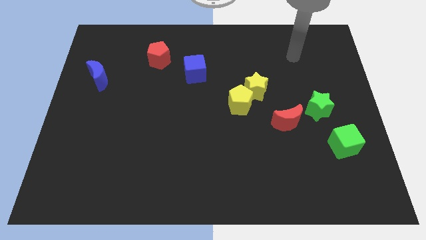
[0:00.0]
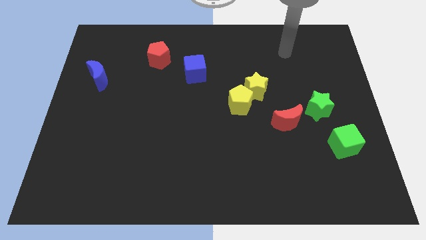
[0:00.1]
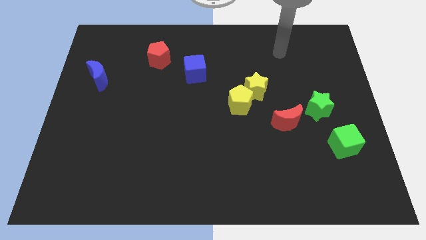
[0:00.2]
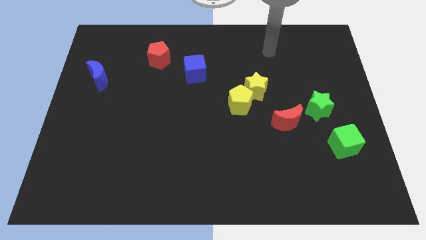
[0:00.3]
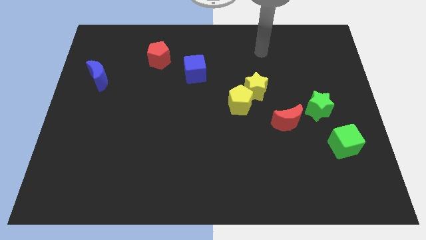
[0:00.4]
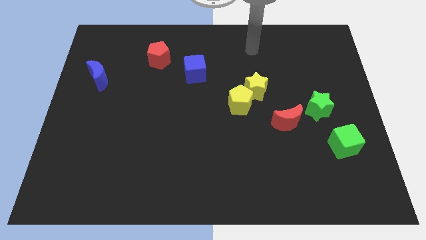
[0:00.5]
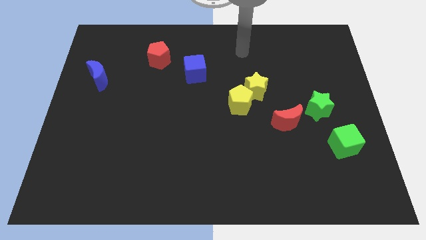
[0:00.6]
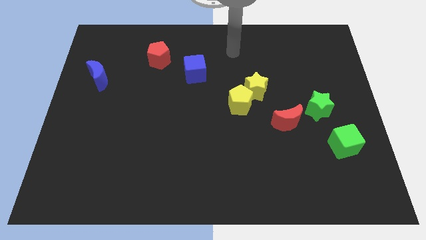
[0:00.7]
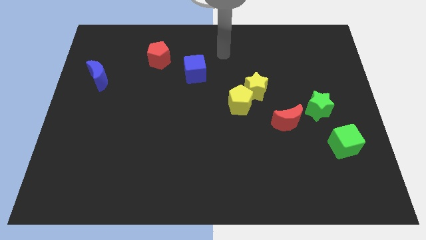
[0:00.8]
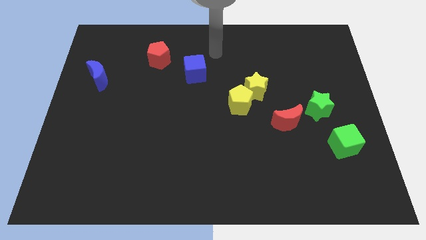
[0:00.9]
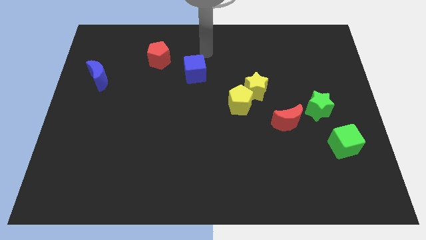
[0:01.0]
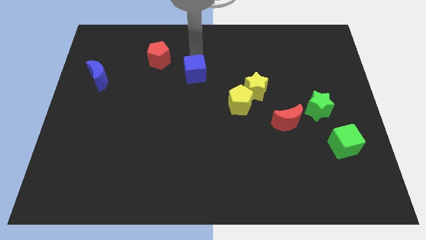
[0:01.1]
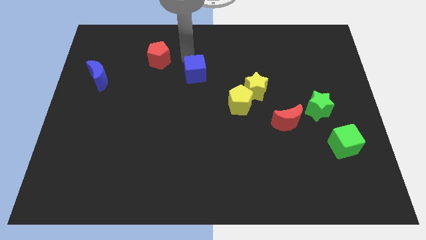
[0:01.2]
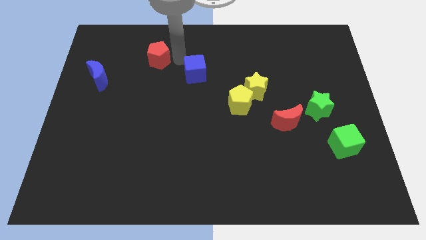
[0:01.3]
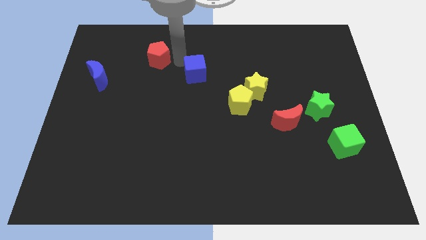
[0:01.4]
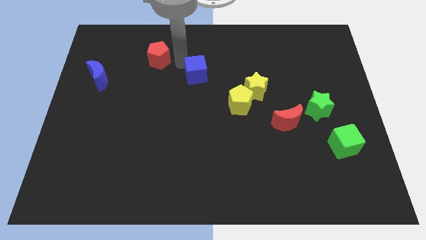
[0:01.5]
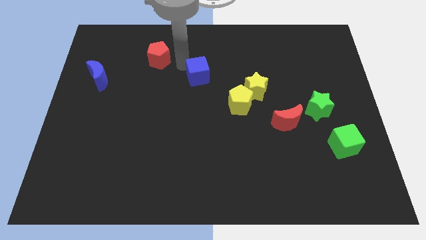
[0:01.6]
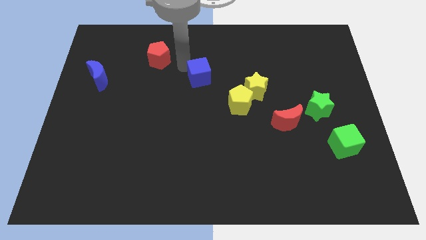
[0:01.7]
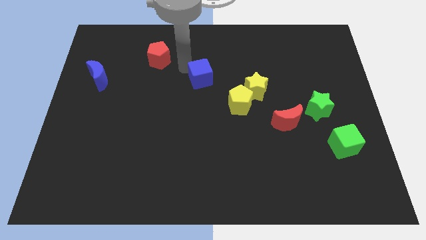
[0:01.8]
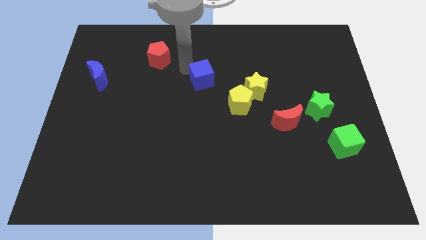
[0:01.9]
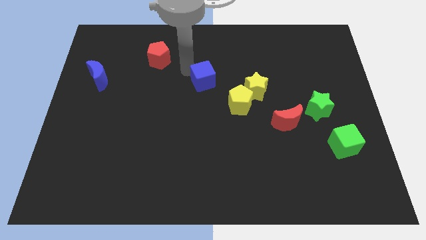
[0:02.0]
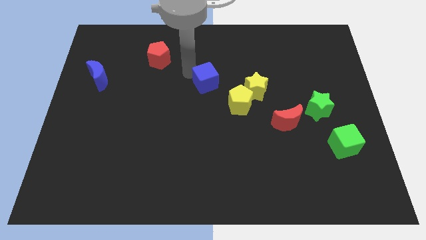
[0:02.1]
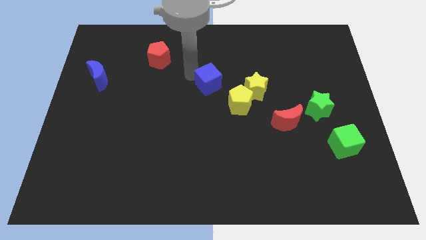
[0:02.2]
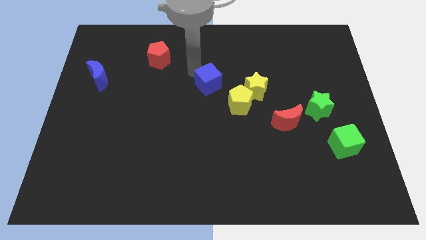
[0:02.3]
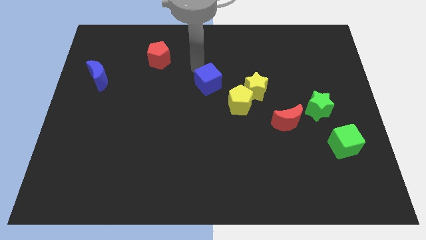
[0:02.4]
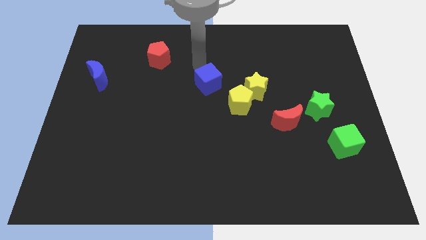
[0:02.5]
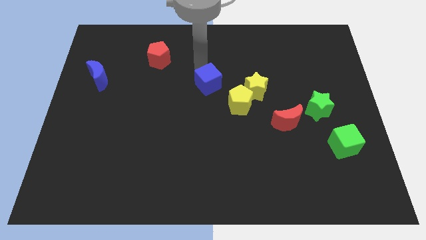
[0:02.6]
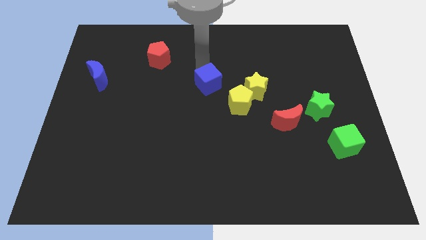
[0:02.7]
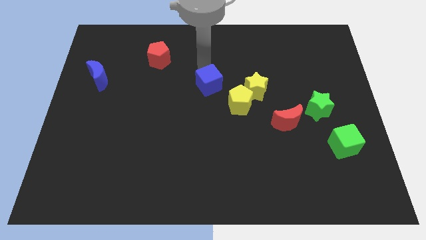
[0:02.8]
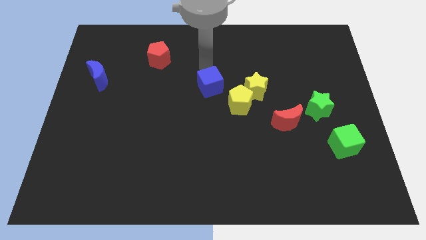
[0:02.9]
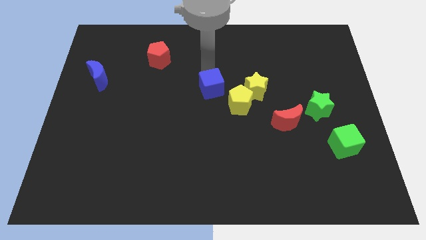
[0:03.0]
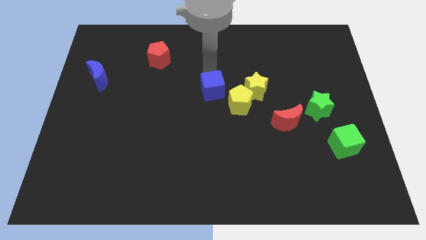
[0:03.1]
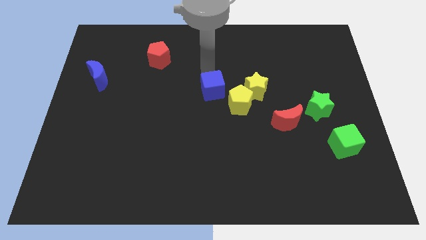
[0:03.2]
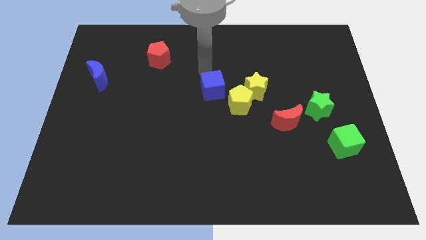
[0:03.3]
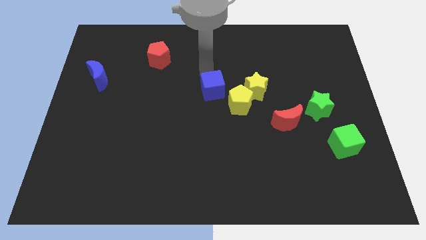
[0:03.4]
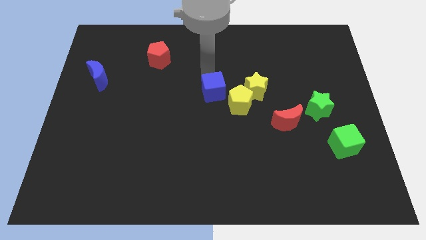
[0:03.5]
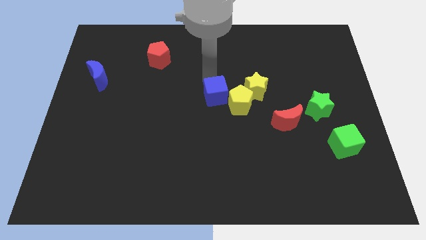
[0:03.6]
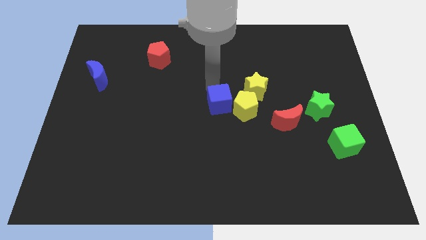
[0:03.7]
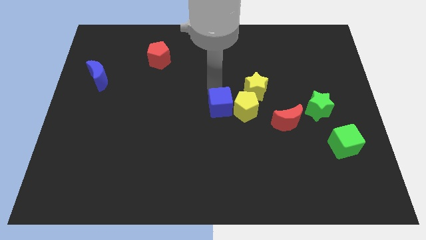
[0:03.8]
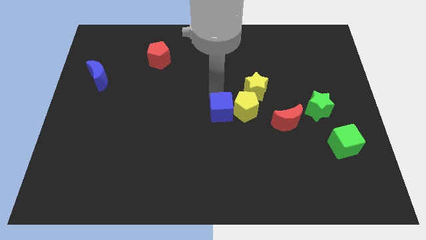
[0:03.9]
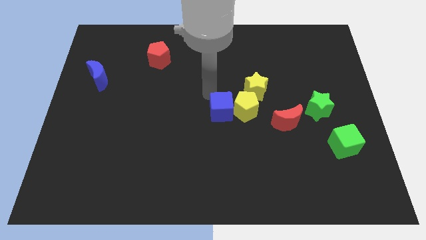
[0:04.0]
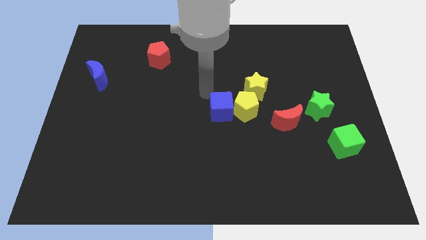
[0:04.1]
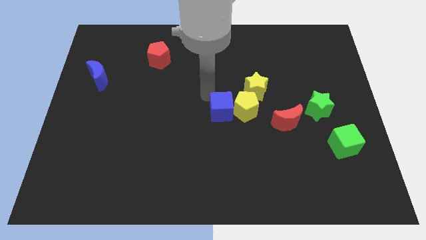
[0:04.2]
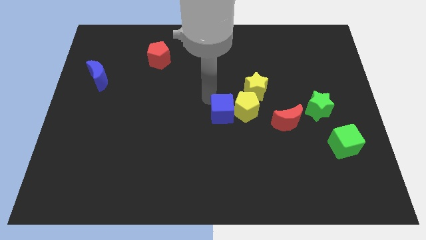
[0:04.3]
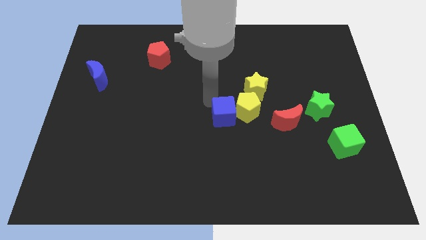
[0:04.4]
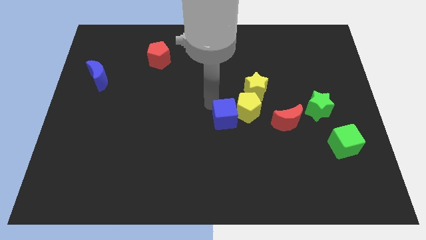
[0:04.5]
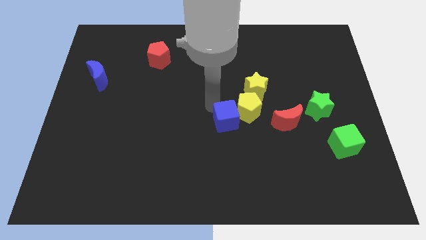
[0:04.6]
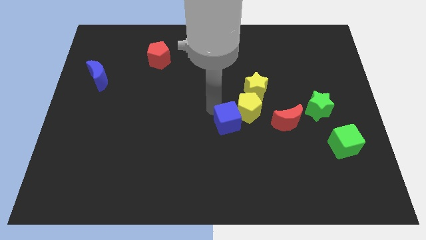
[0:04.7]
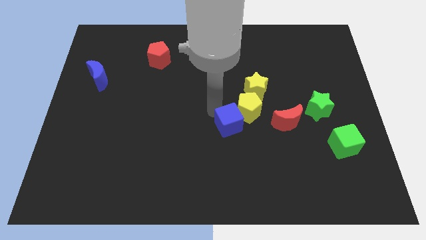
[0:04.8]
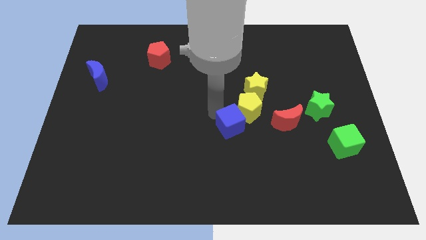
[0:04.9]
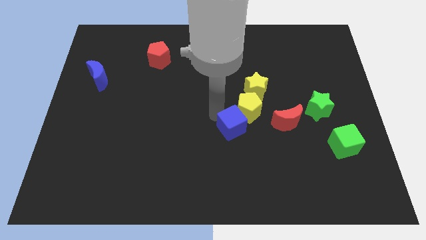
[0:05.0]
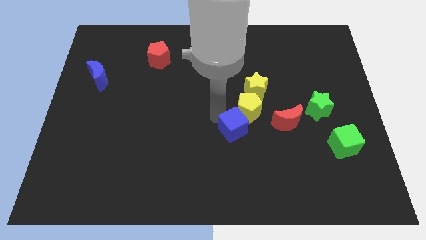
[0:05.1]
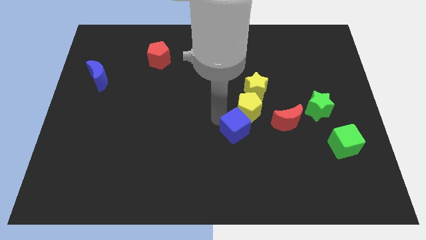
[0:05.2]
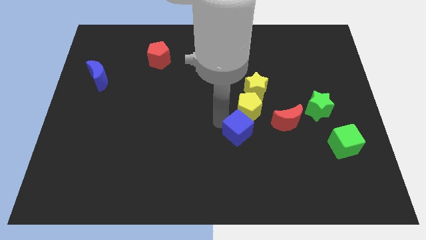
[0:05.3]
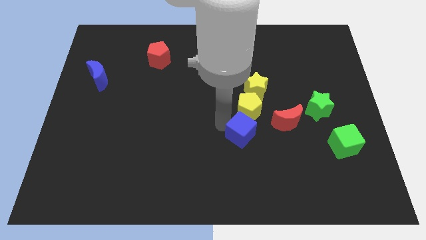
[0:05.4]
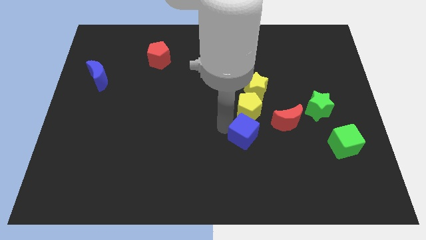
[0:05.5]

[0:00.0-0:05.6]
push the blue cube down and to the right diagonally

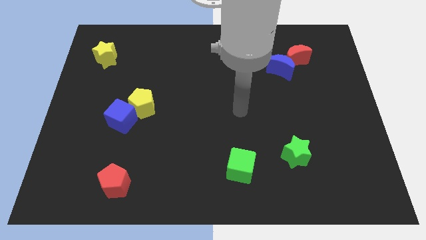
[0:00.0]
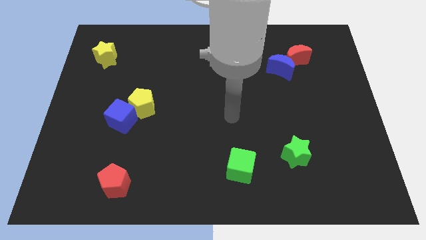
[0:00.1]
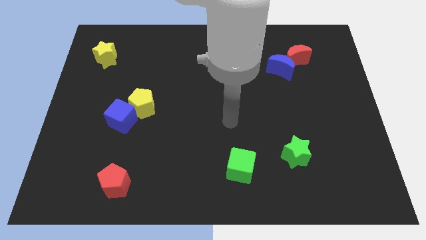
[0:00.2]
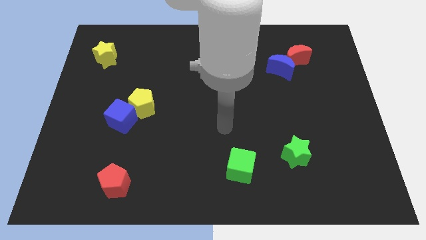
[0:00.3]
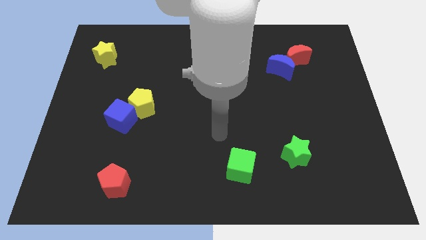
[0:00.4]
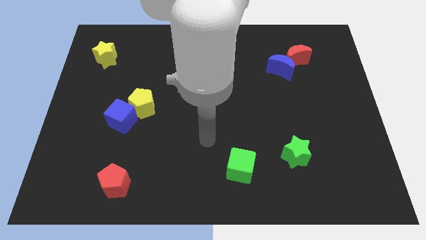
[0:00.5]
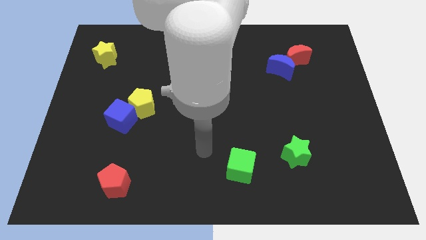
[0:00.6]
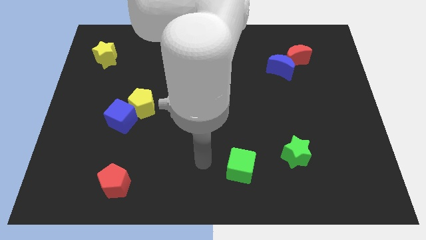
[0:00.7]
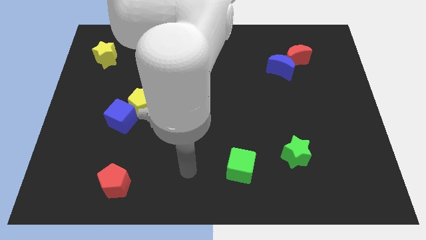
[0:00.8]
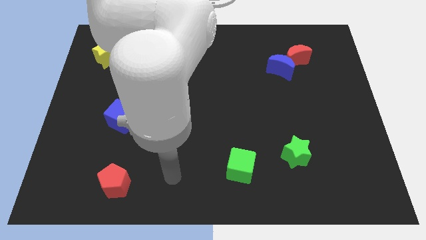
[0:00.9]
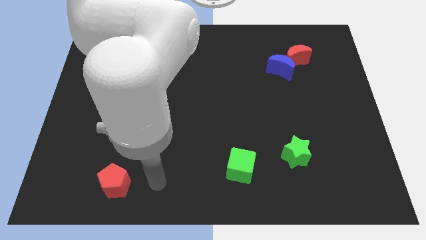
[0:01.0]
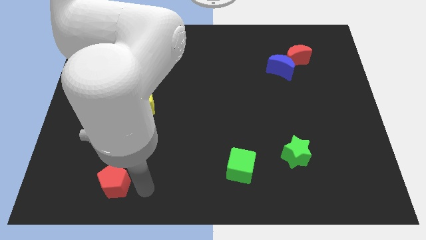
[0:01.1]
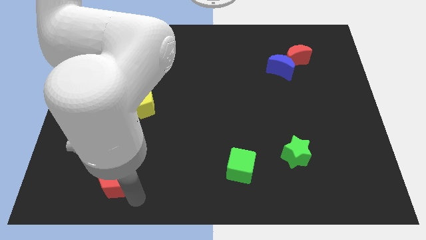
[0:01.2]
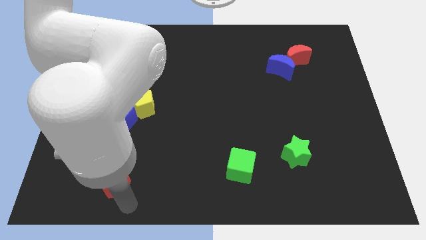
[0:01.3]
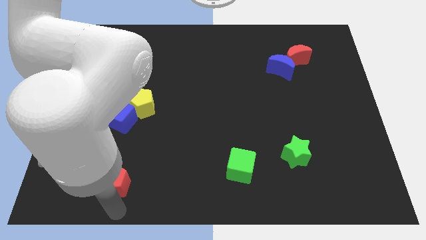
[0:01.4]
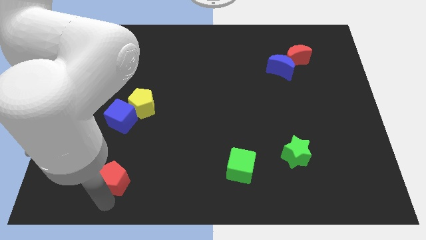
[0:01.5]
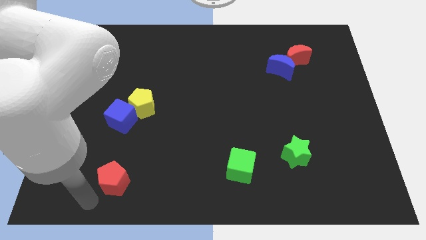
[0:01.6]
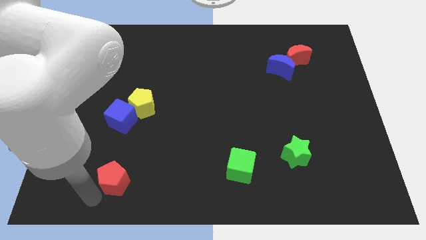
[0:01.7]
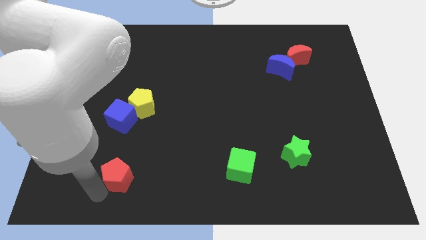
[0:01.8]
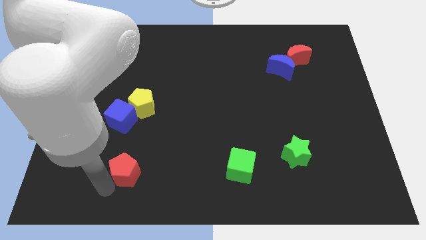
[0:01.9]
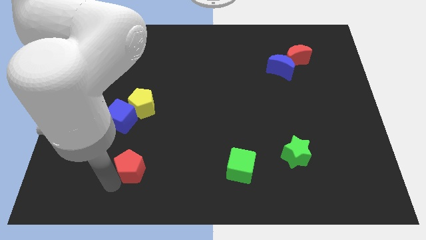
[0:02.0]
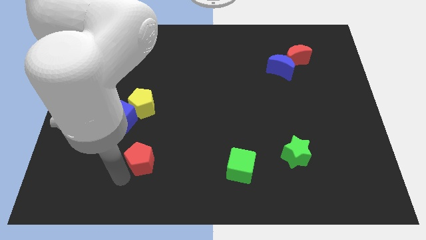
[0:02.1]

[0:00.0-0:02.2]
push the red pentagon upwards and right a little
